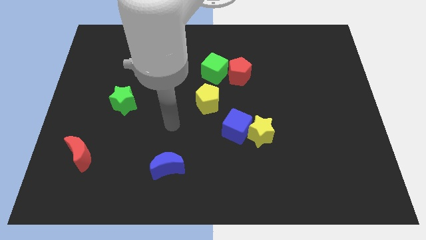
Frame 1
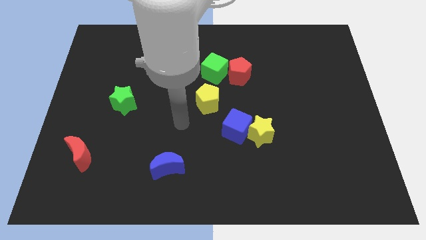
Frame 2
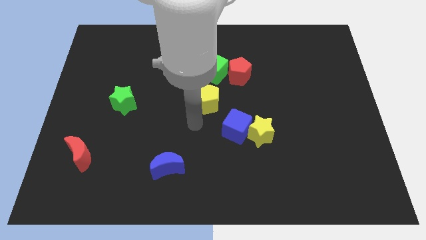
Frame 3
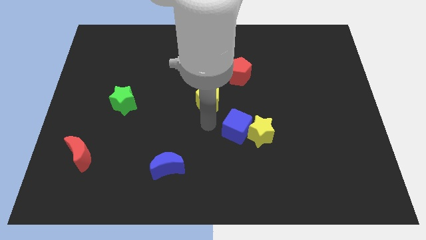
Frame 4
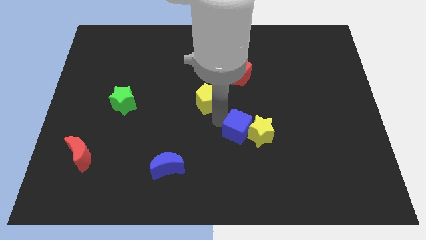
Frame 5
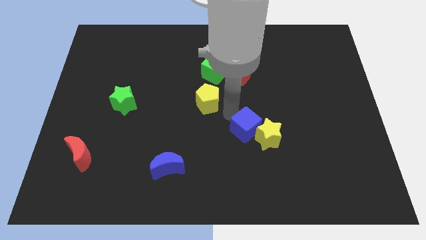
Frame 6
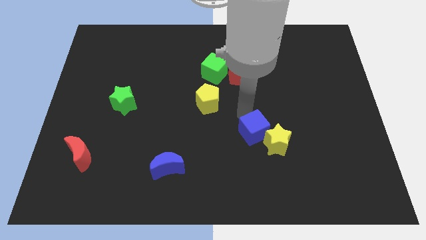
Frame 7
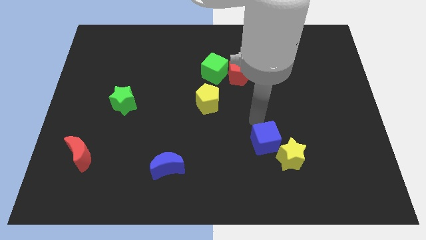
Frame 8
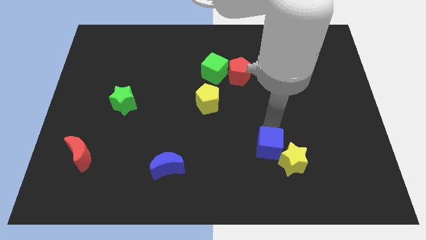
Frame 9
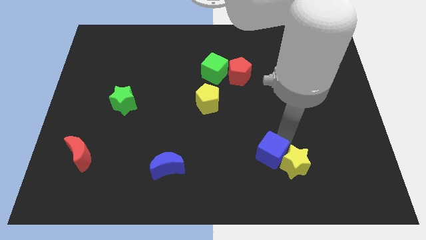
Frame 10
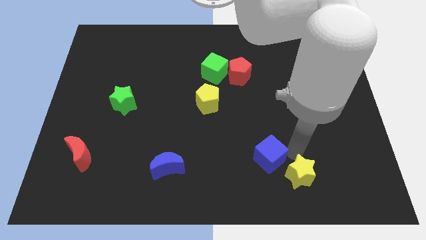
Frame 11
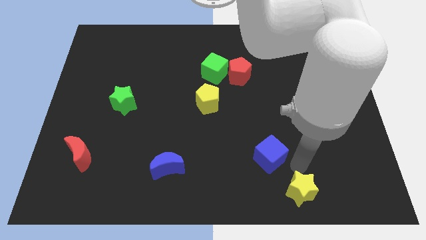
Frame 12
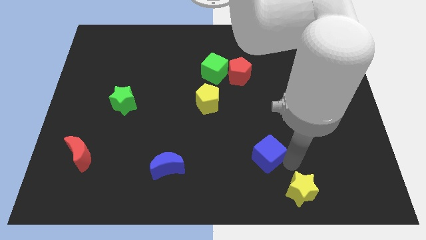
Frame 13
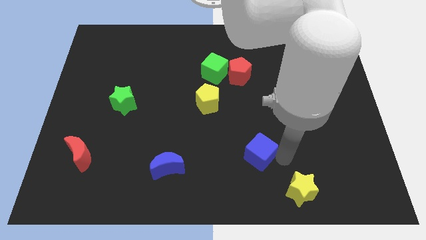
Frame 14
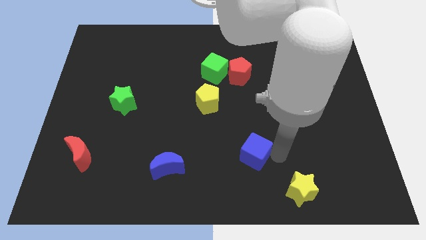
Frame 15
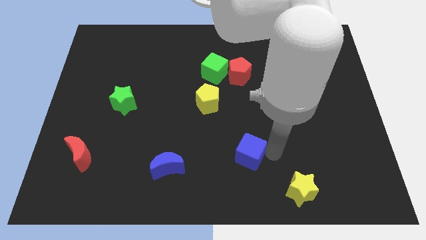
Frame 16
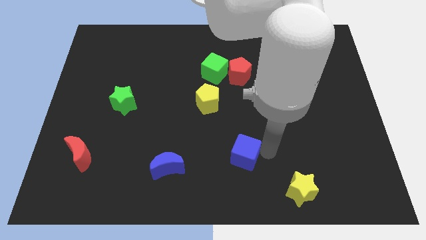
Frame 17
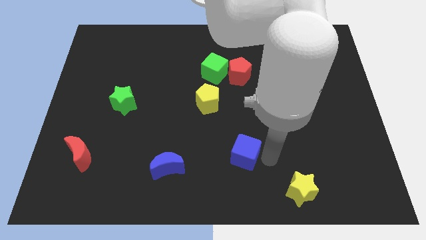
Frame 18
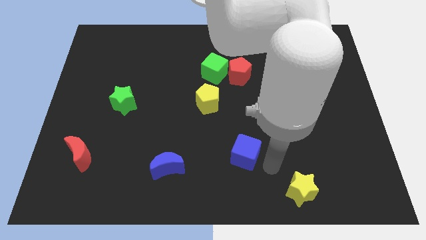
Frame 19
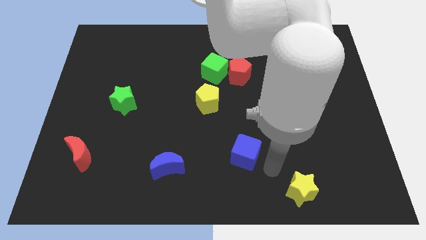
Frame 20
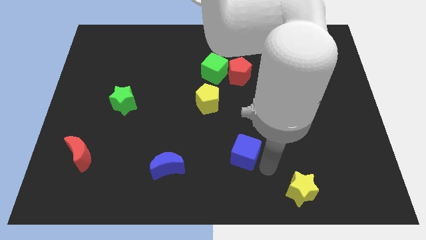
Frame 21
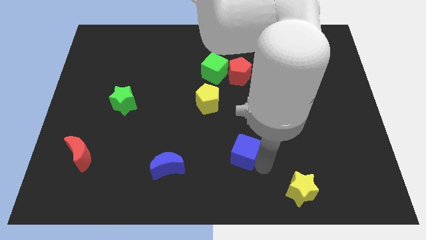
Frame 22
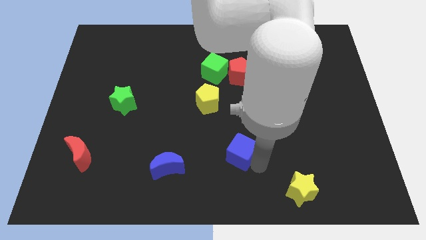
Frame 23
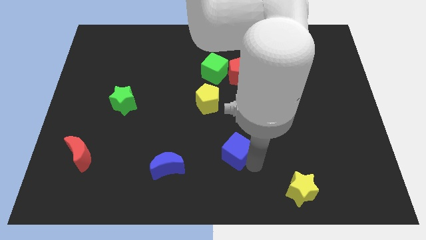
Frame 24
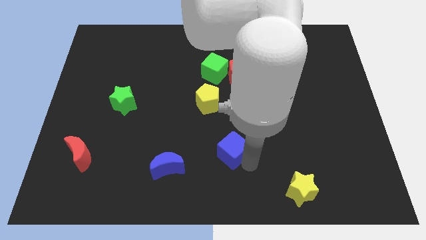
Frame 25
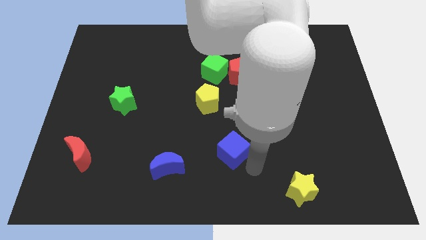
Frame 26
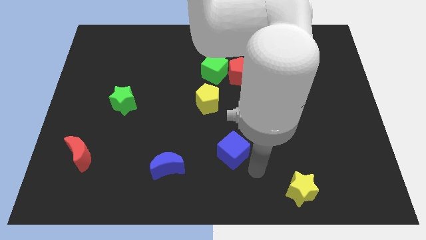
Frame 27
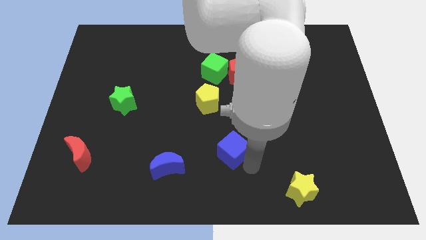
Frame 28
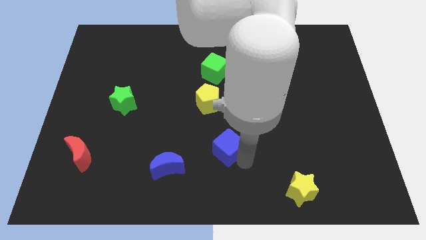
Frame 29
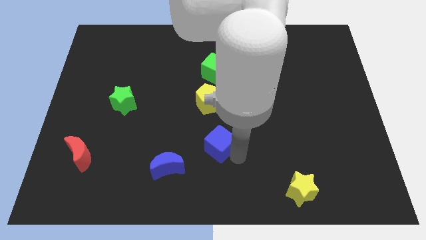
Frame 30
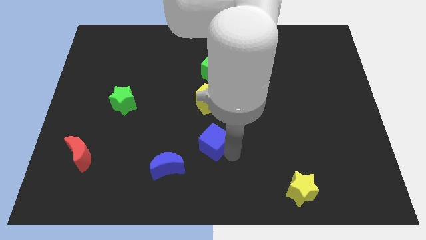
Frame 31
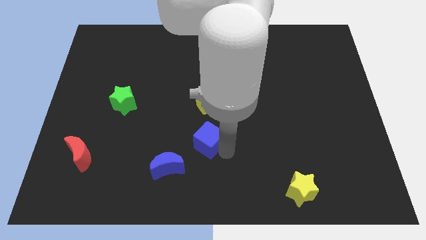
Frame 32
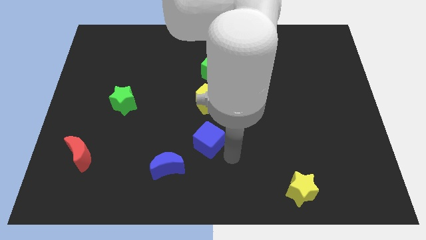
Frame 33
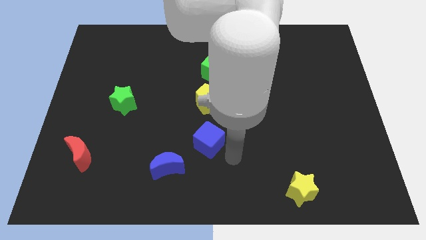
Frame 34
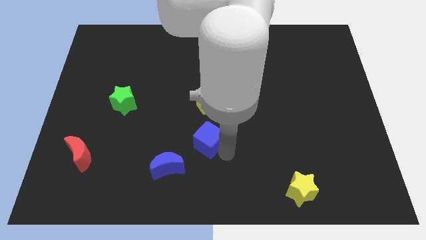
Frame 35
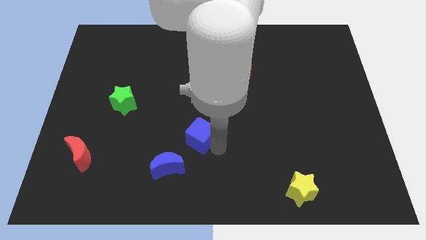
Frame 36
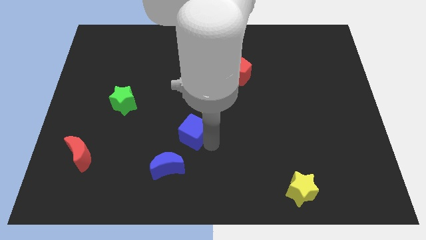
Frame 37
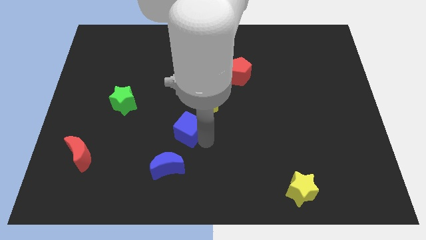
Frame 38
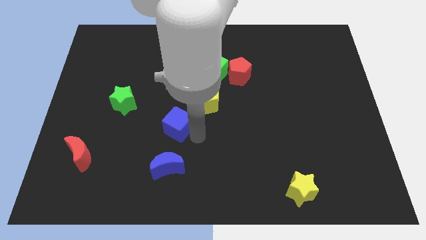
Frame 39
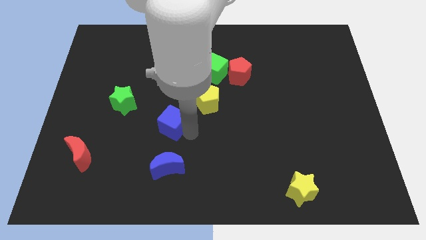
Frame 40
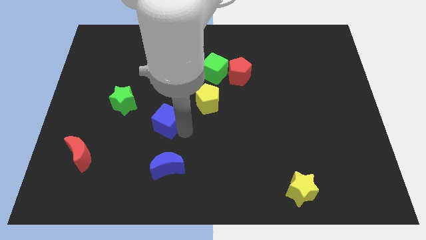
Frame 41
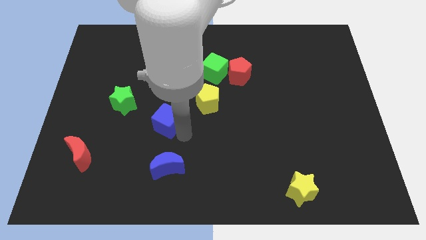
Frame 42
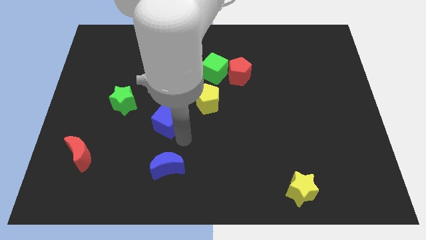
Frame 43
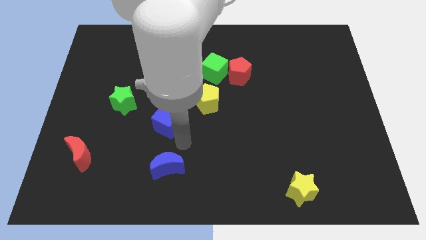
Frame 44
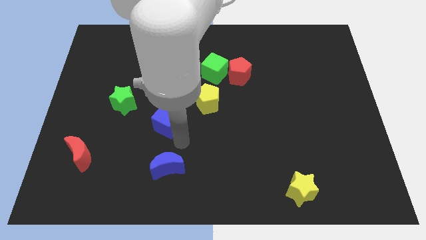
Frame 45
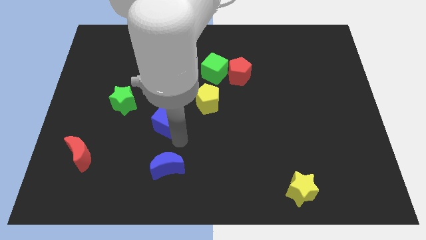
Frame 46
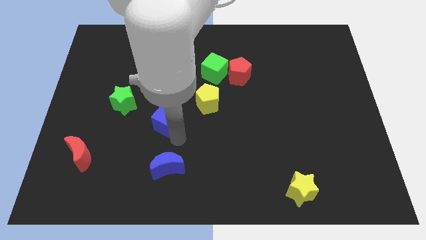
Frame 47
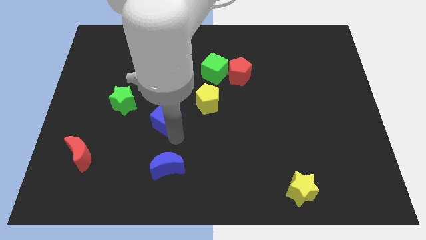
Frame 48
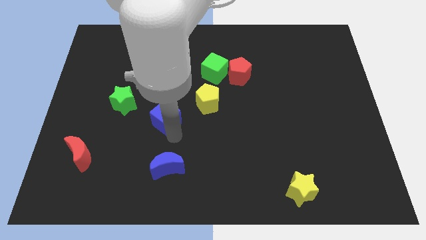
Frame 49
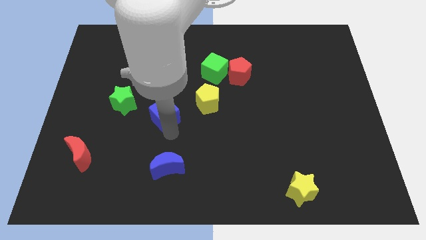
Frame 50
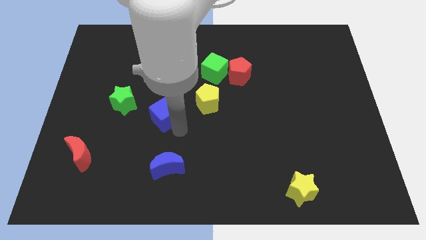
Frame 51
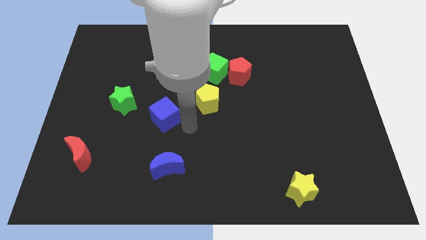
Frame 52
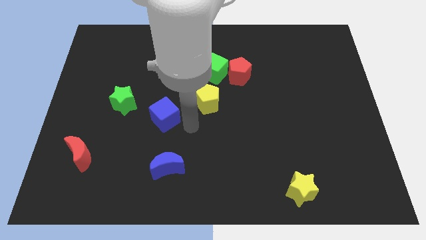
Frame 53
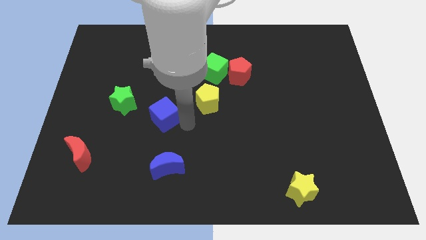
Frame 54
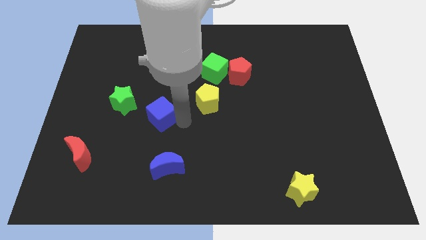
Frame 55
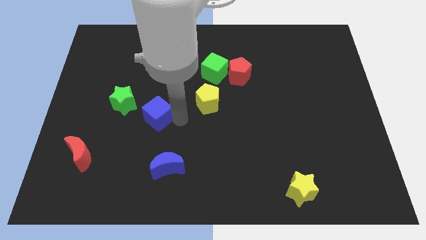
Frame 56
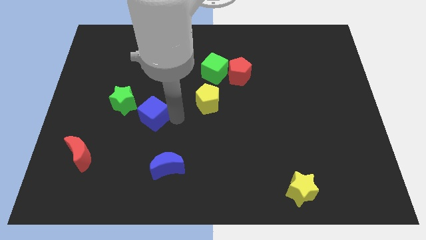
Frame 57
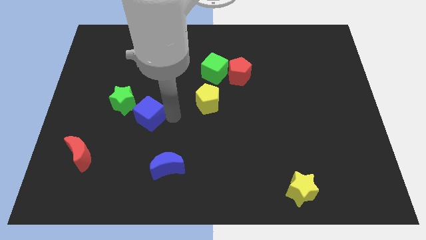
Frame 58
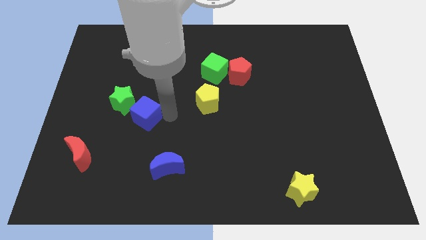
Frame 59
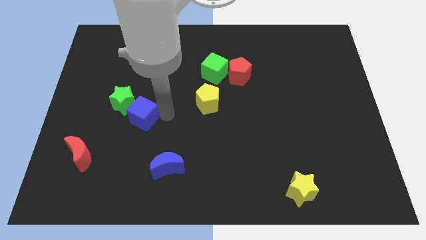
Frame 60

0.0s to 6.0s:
push the blue cube towards the green star
